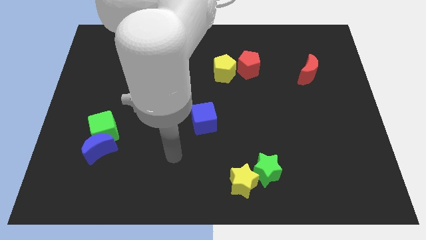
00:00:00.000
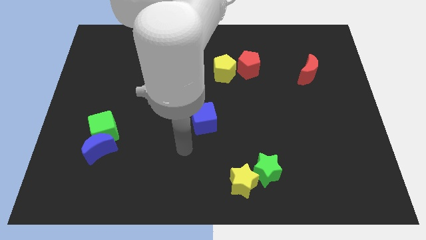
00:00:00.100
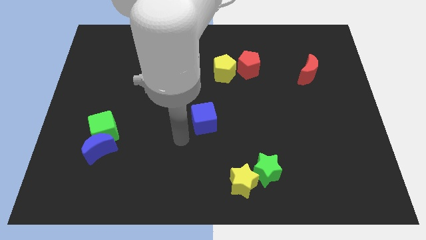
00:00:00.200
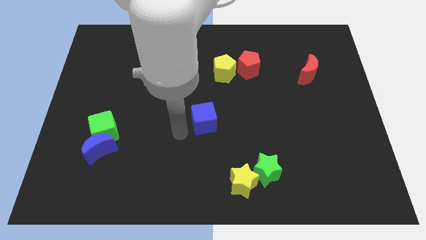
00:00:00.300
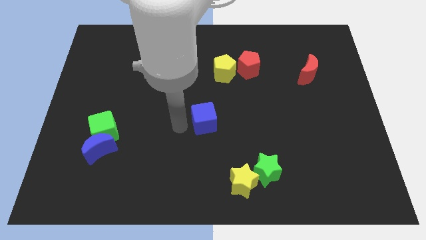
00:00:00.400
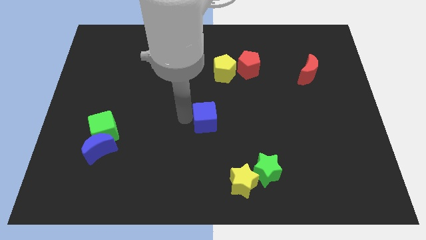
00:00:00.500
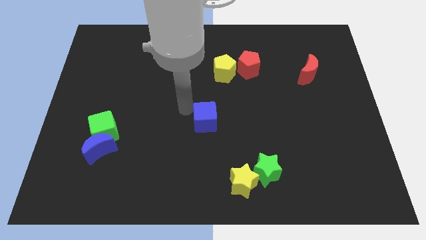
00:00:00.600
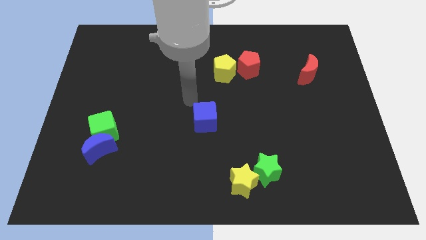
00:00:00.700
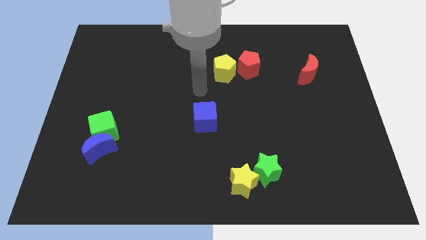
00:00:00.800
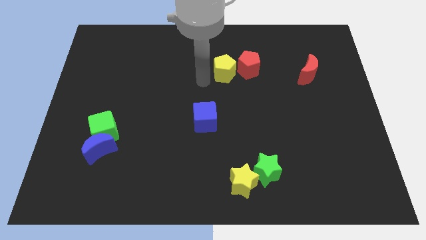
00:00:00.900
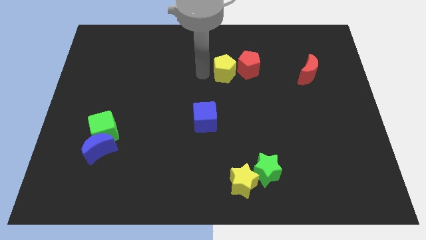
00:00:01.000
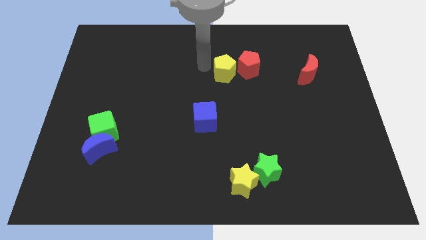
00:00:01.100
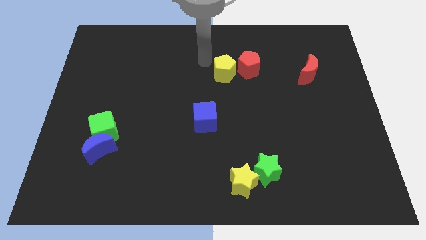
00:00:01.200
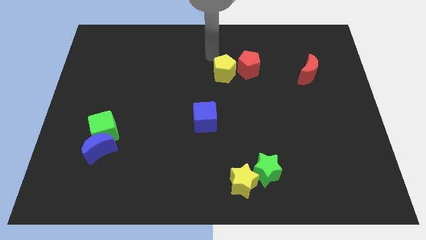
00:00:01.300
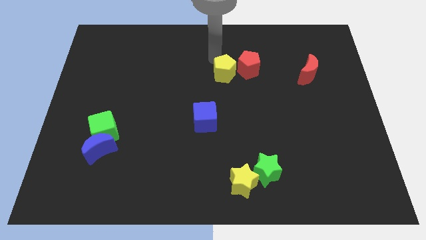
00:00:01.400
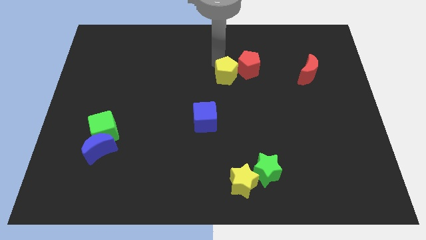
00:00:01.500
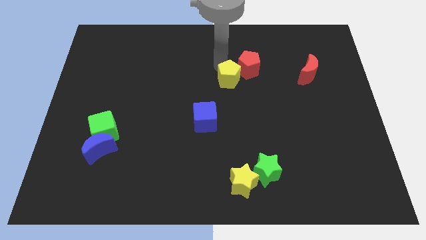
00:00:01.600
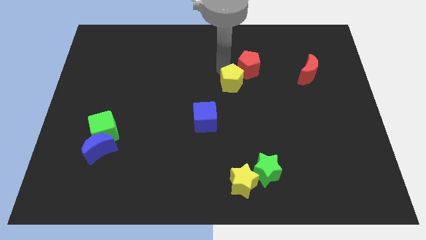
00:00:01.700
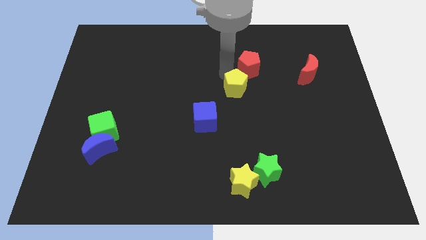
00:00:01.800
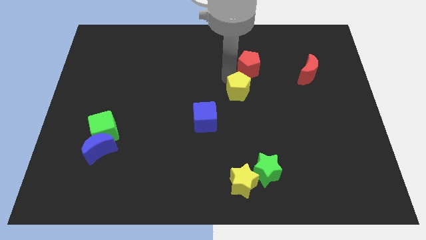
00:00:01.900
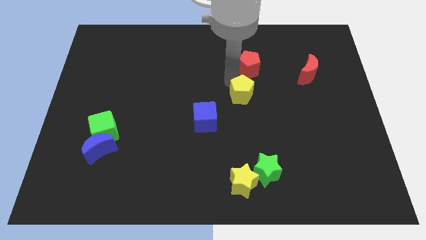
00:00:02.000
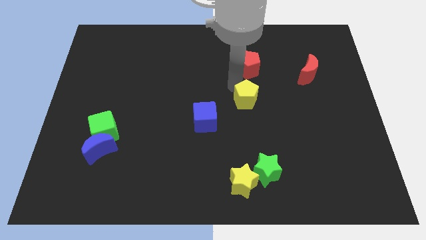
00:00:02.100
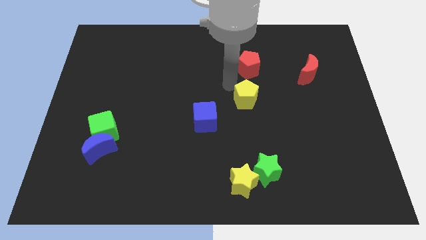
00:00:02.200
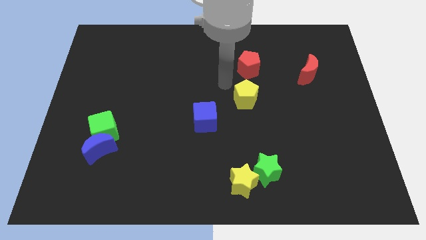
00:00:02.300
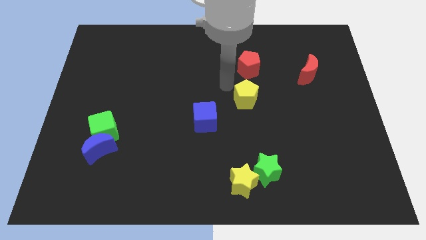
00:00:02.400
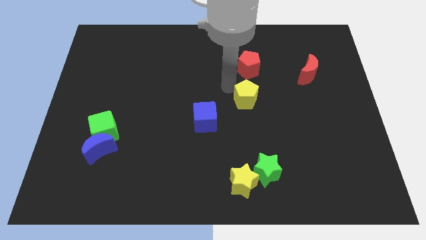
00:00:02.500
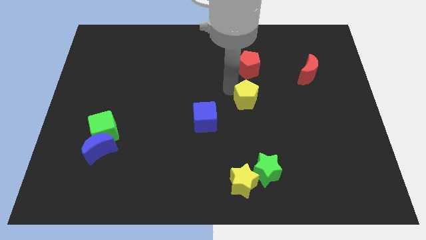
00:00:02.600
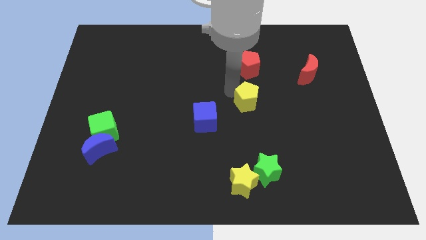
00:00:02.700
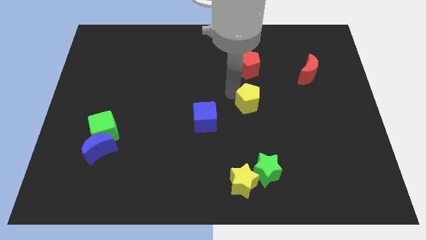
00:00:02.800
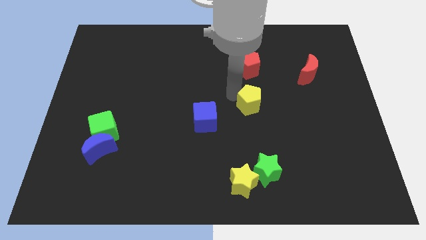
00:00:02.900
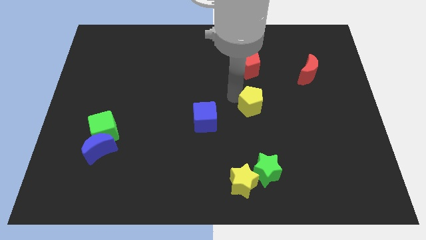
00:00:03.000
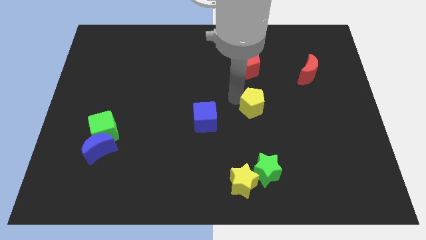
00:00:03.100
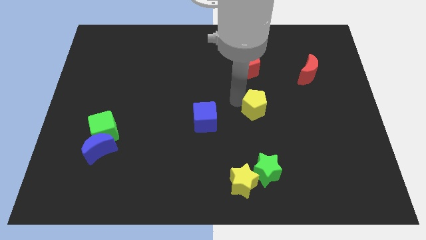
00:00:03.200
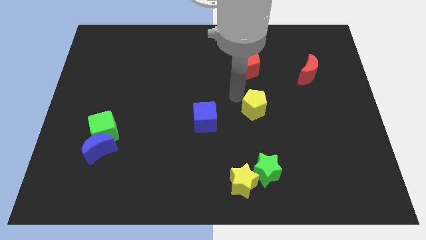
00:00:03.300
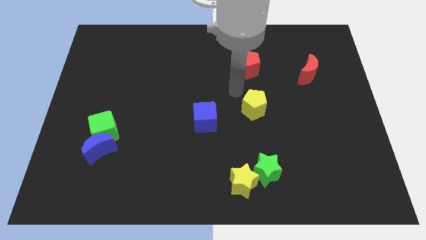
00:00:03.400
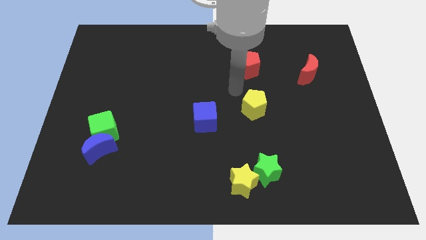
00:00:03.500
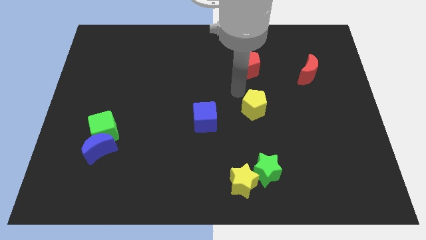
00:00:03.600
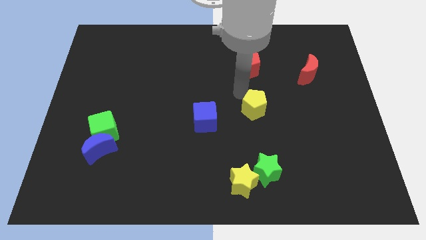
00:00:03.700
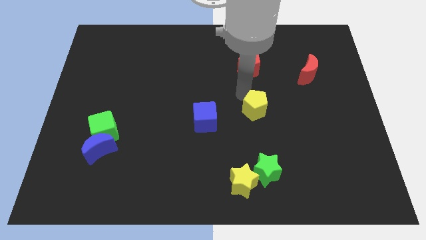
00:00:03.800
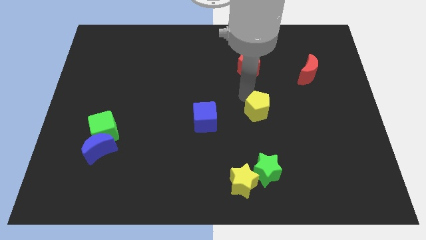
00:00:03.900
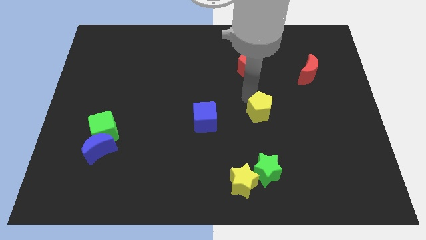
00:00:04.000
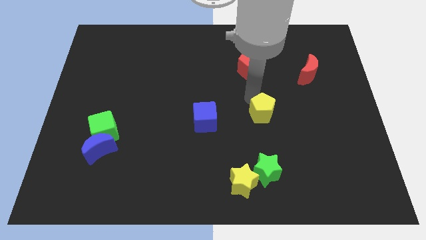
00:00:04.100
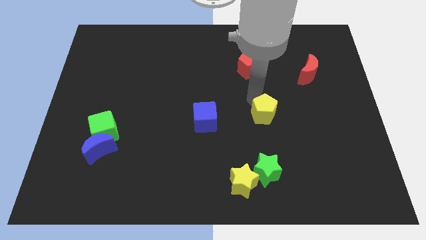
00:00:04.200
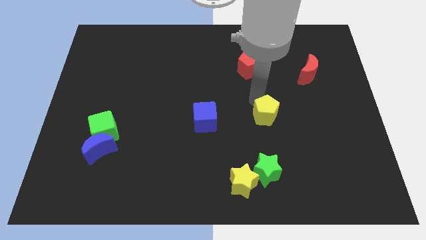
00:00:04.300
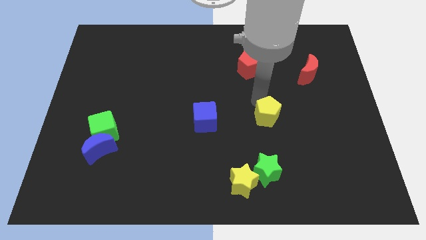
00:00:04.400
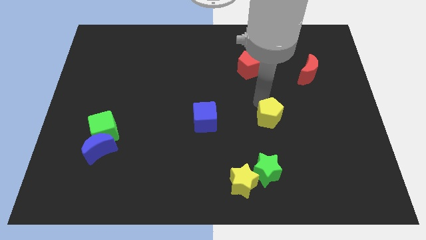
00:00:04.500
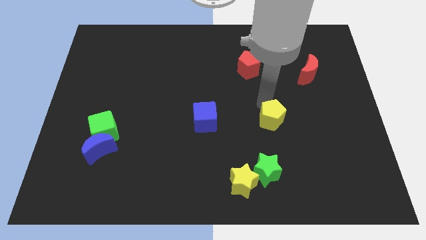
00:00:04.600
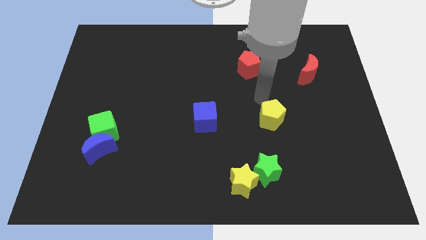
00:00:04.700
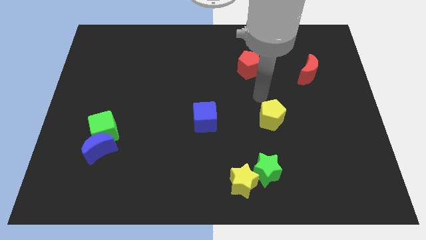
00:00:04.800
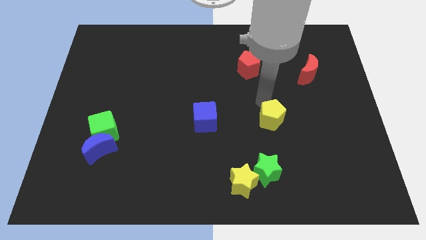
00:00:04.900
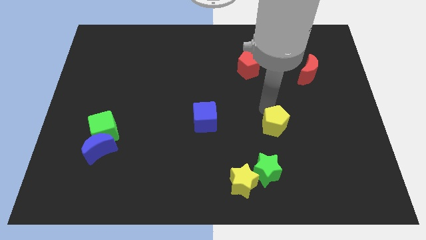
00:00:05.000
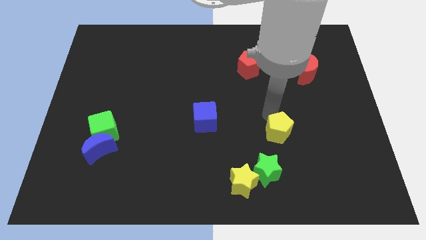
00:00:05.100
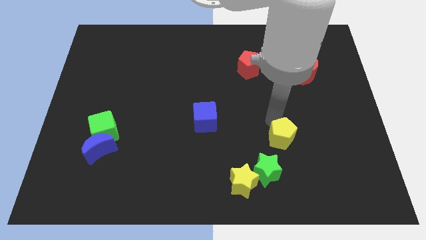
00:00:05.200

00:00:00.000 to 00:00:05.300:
slide the yellow pentagon to the top right side of the green star

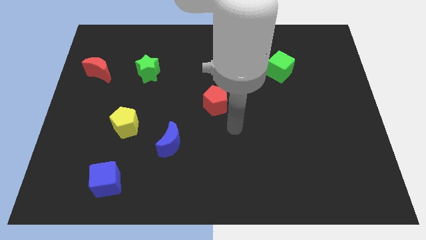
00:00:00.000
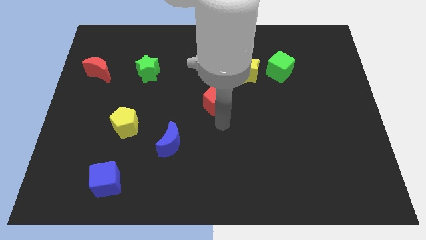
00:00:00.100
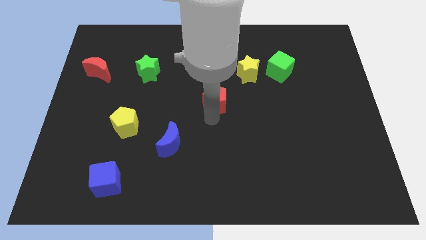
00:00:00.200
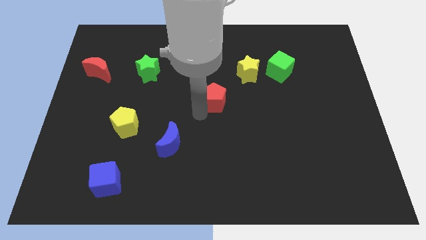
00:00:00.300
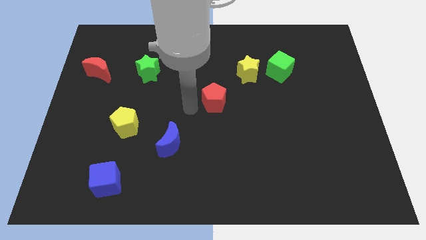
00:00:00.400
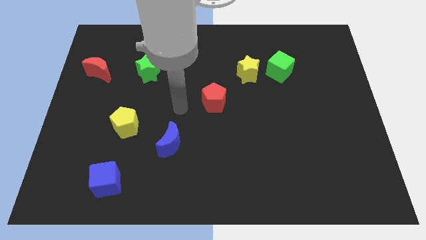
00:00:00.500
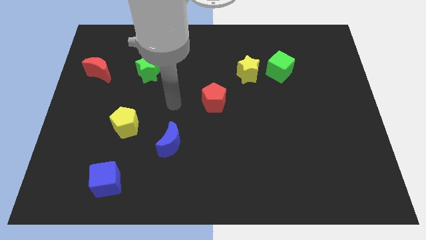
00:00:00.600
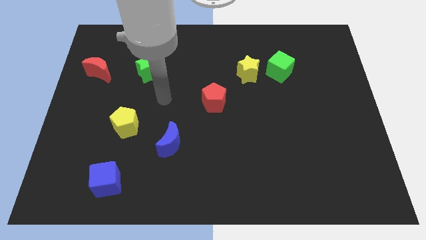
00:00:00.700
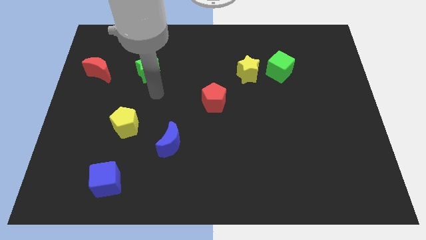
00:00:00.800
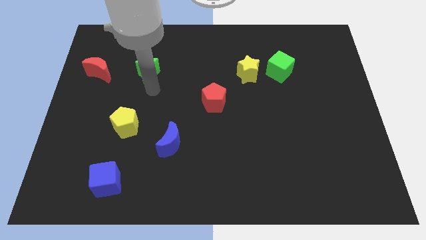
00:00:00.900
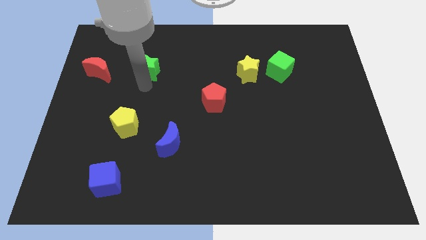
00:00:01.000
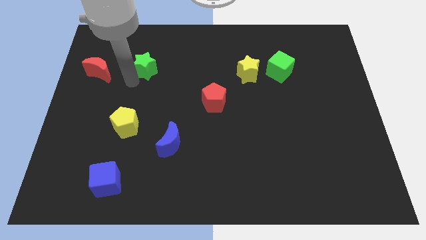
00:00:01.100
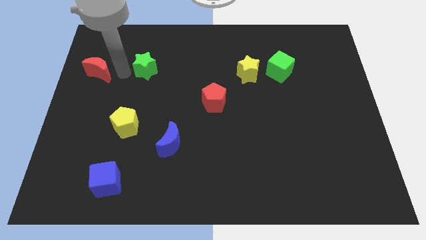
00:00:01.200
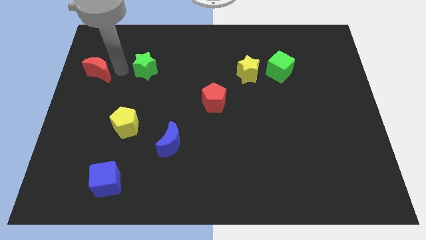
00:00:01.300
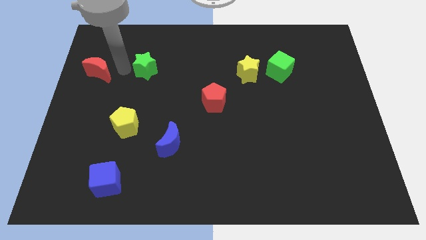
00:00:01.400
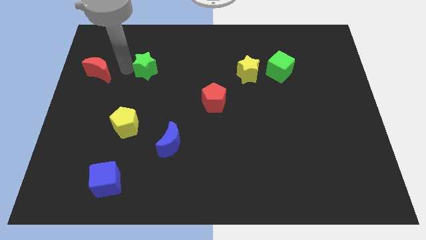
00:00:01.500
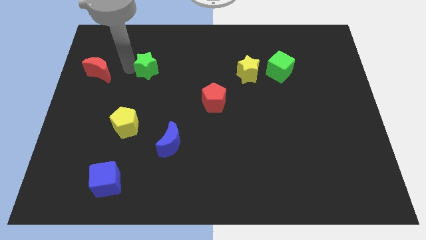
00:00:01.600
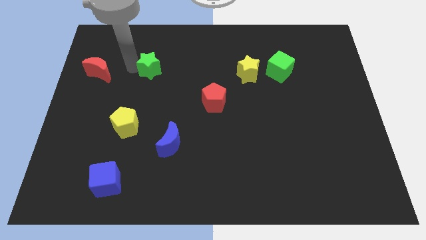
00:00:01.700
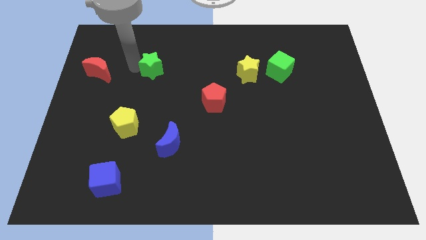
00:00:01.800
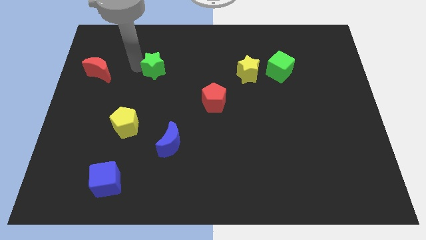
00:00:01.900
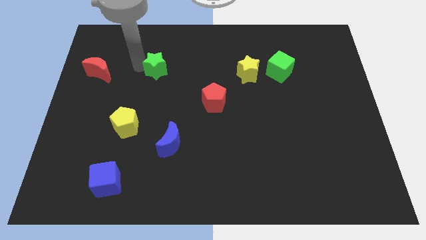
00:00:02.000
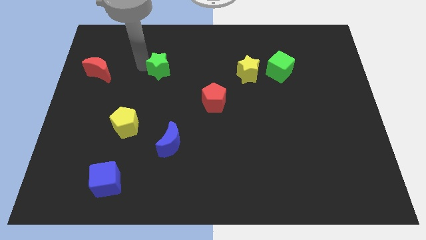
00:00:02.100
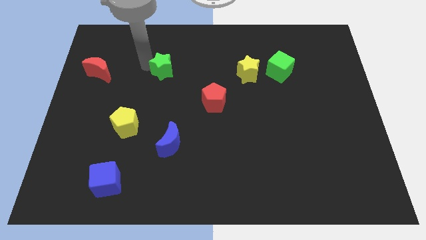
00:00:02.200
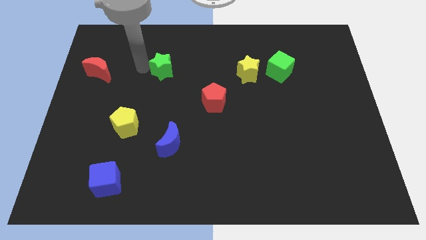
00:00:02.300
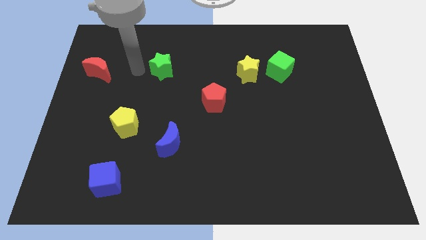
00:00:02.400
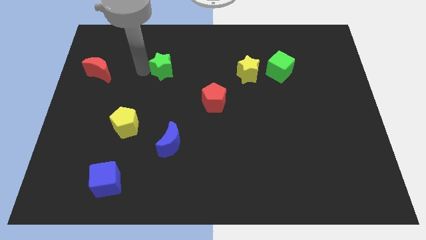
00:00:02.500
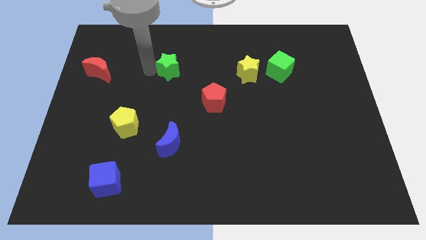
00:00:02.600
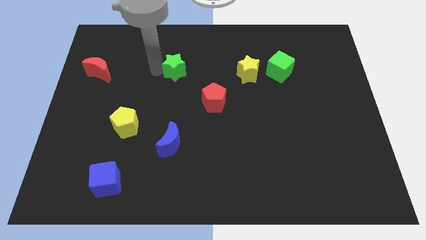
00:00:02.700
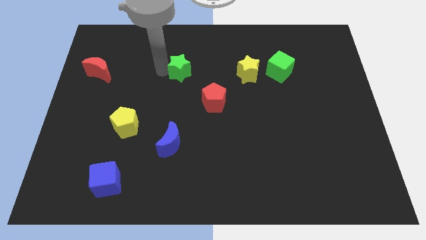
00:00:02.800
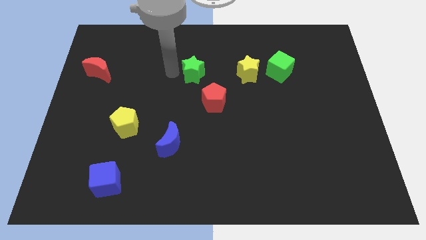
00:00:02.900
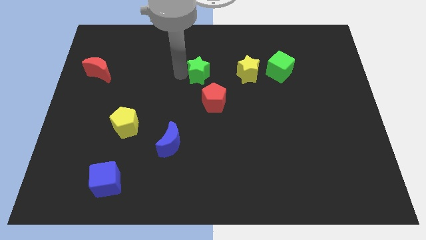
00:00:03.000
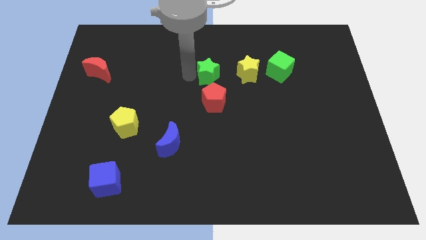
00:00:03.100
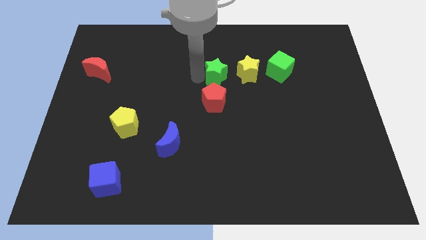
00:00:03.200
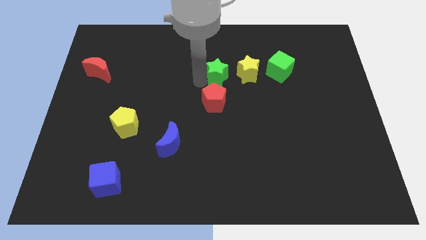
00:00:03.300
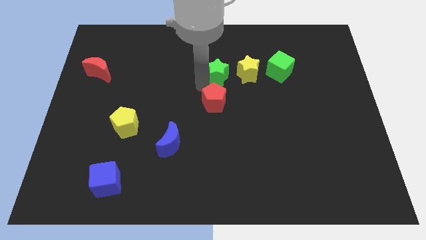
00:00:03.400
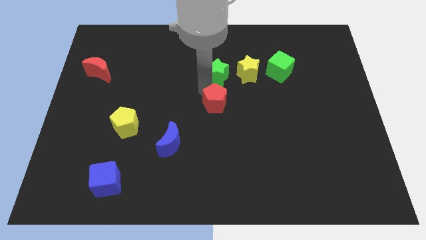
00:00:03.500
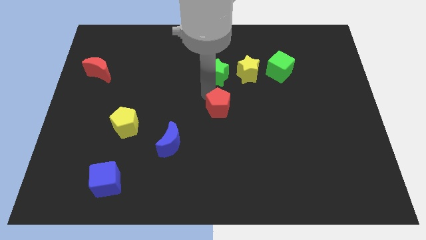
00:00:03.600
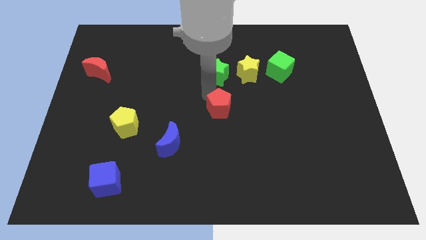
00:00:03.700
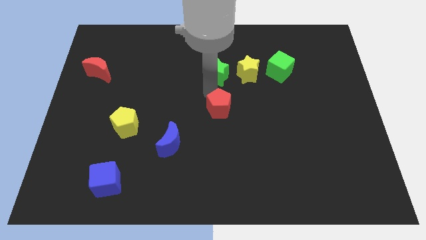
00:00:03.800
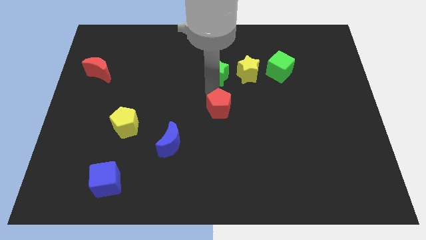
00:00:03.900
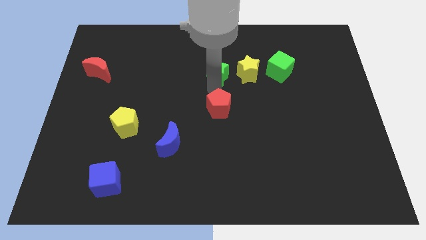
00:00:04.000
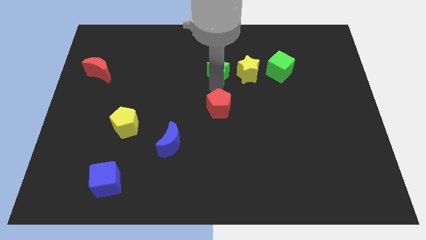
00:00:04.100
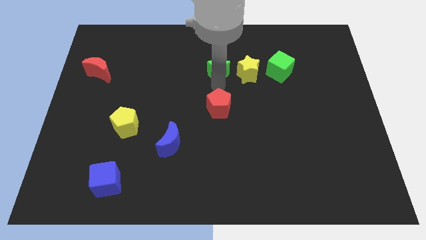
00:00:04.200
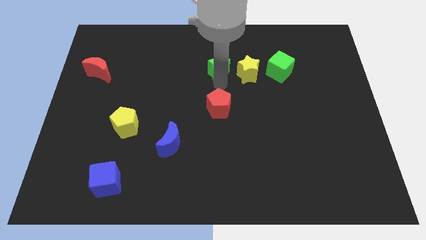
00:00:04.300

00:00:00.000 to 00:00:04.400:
push the green star diagonally up and to the left of the yellow star
